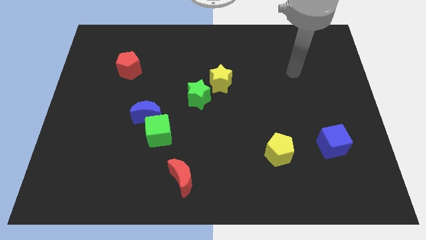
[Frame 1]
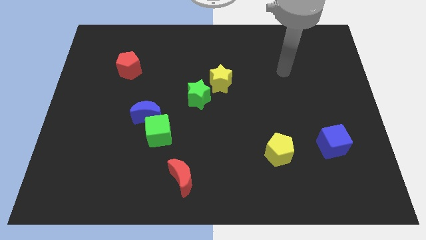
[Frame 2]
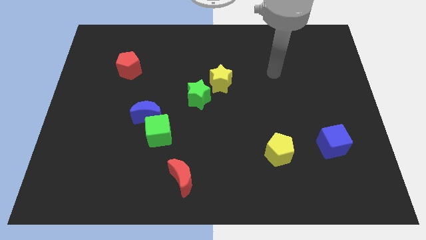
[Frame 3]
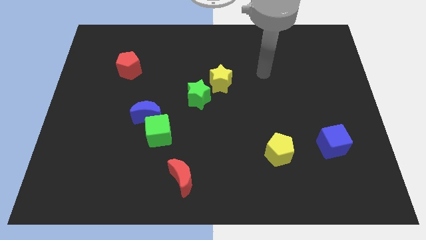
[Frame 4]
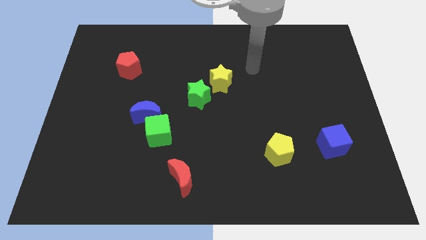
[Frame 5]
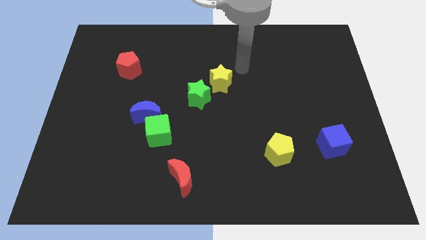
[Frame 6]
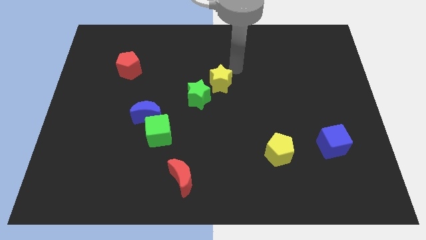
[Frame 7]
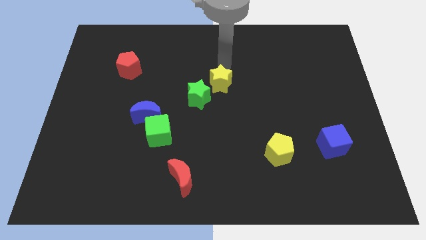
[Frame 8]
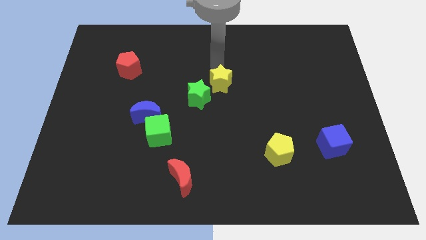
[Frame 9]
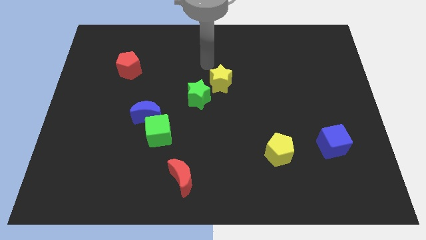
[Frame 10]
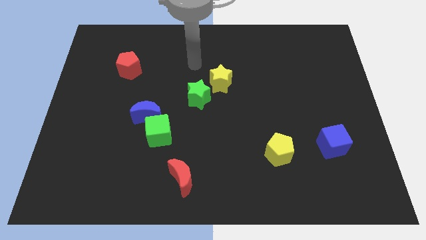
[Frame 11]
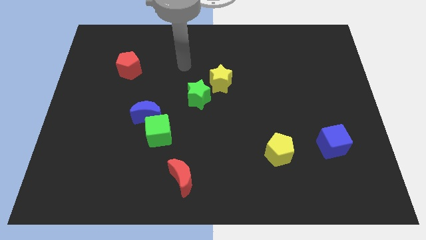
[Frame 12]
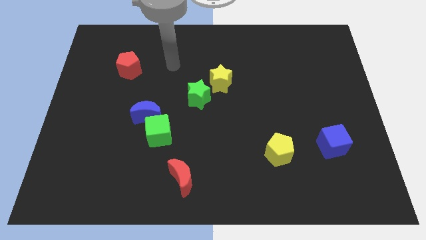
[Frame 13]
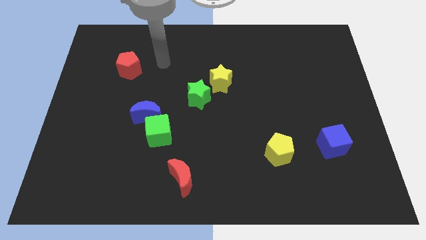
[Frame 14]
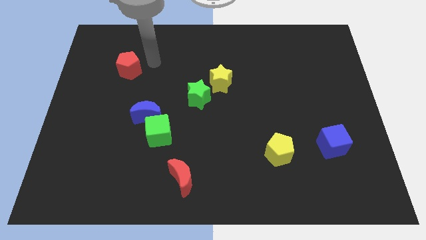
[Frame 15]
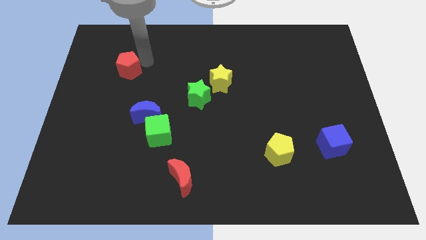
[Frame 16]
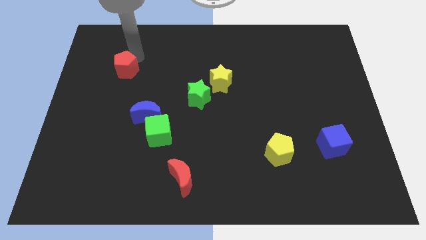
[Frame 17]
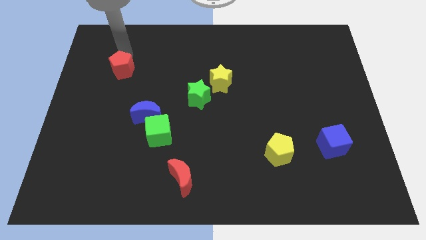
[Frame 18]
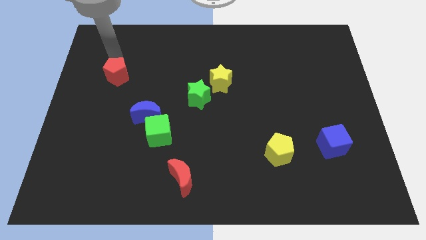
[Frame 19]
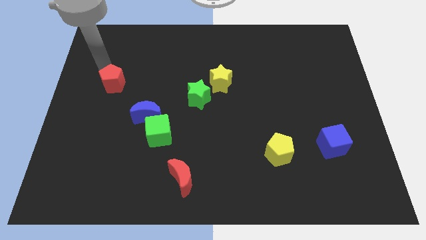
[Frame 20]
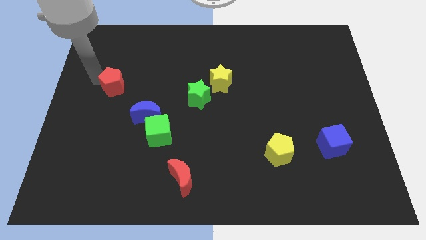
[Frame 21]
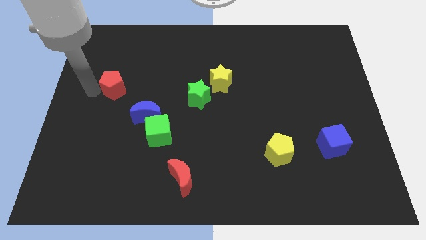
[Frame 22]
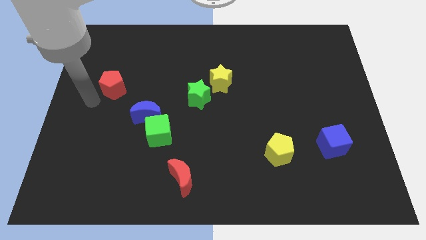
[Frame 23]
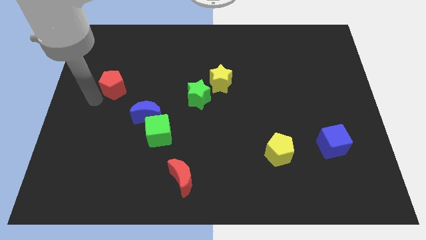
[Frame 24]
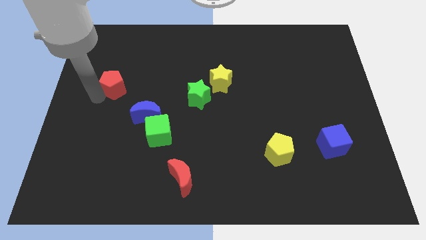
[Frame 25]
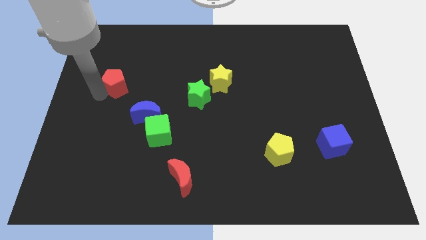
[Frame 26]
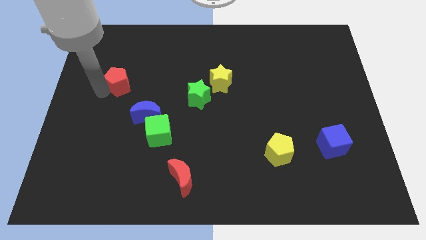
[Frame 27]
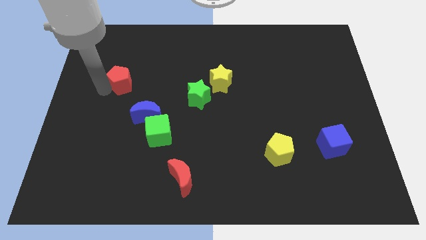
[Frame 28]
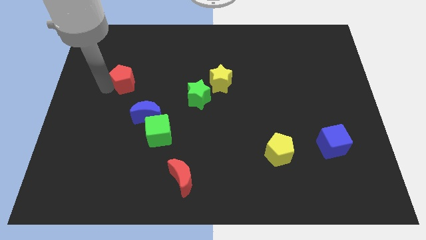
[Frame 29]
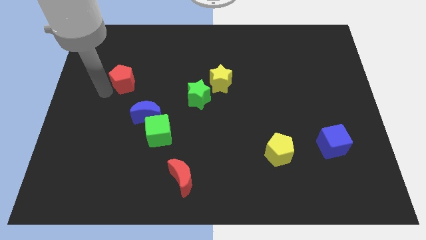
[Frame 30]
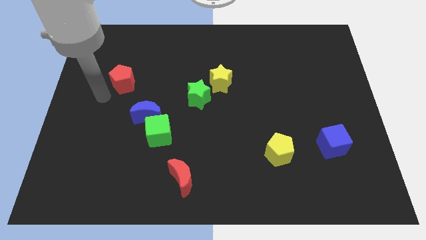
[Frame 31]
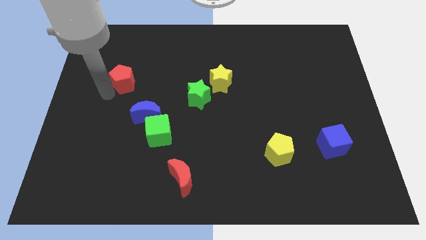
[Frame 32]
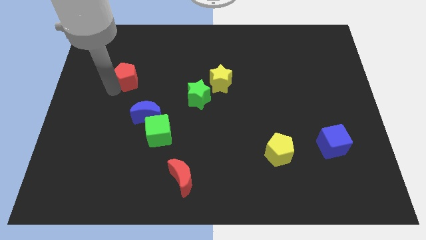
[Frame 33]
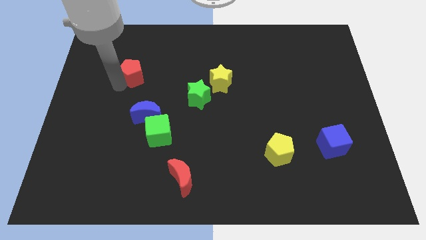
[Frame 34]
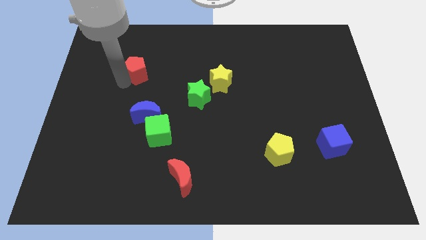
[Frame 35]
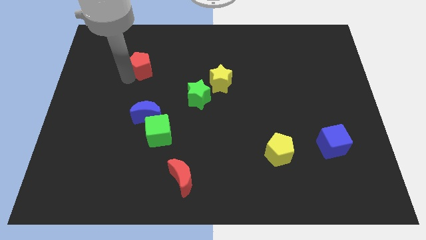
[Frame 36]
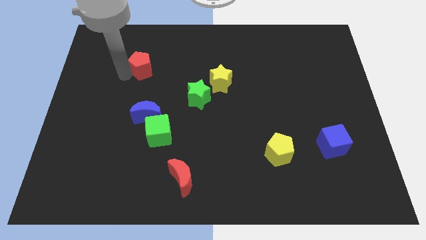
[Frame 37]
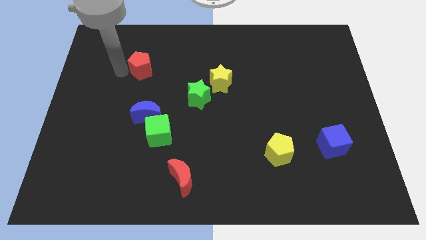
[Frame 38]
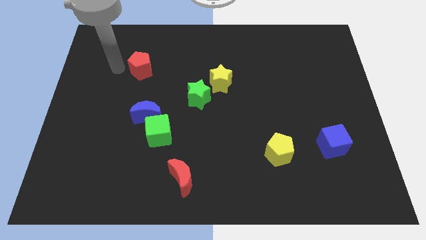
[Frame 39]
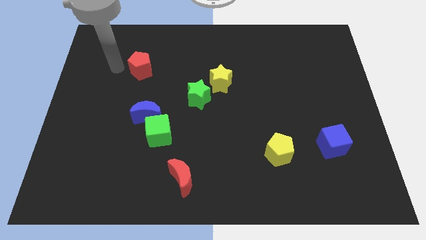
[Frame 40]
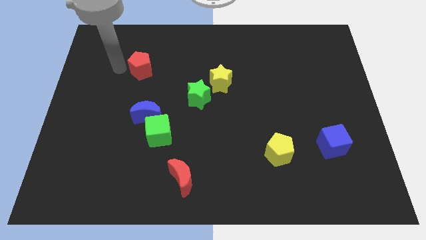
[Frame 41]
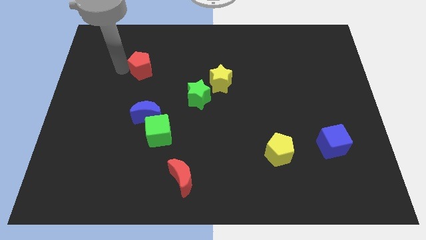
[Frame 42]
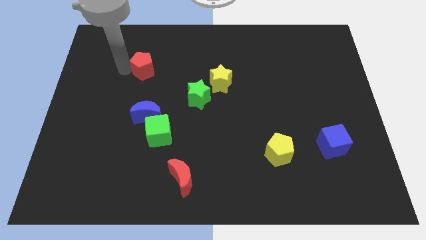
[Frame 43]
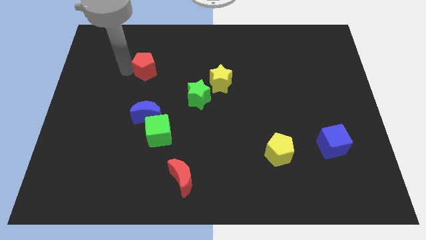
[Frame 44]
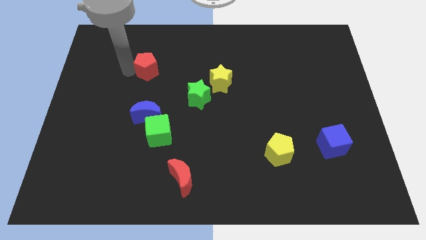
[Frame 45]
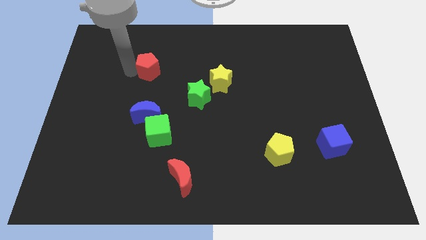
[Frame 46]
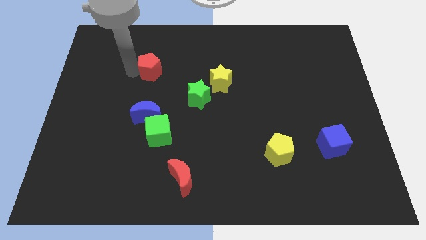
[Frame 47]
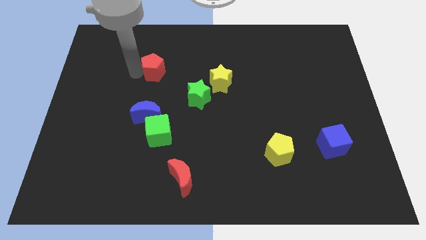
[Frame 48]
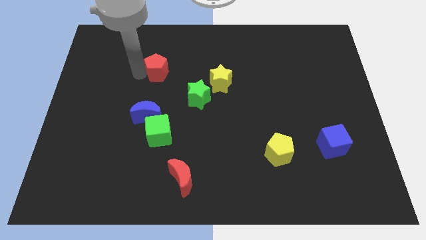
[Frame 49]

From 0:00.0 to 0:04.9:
push the red pentagon a little right

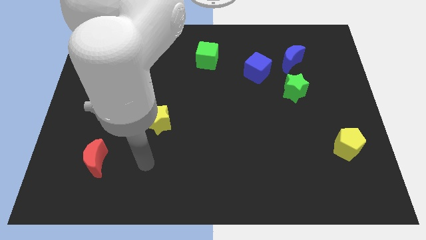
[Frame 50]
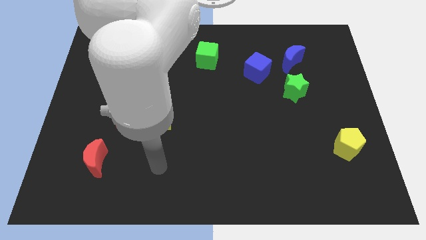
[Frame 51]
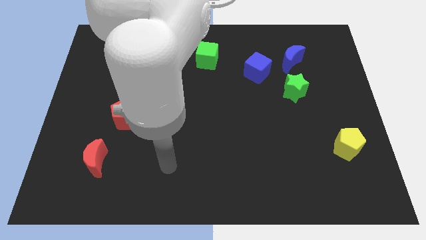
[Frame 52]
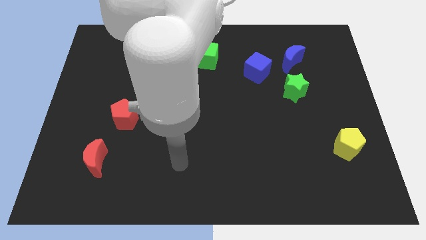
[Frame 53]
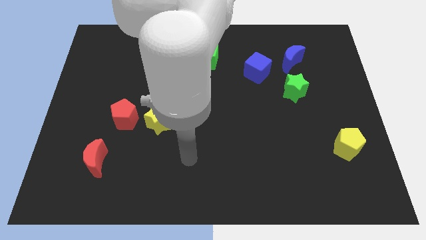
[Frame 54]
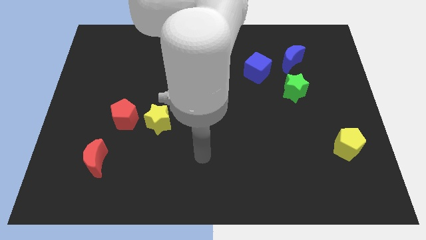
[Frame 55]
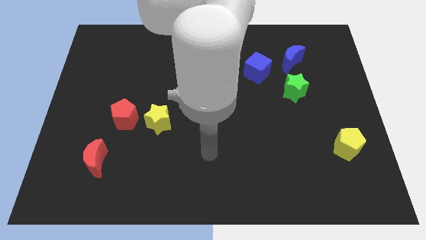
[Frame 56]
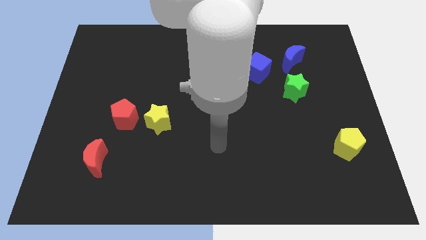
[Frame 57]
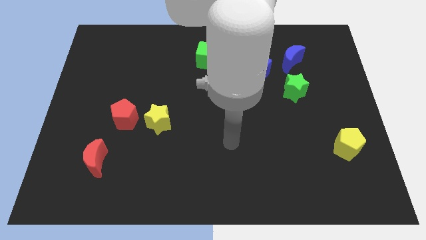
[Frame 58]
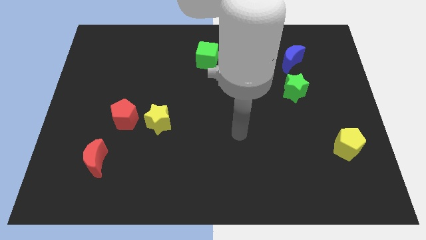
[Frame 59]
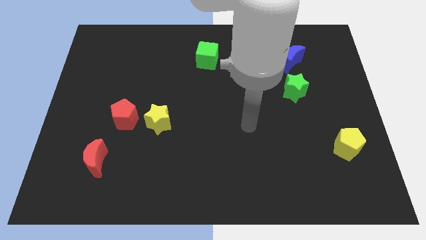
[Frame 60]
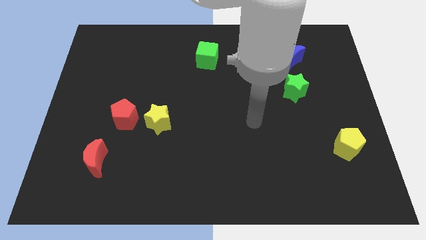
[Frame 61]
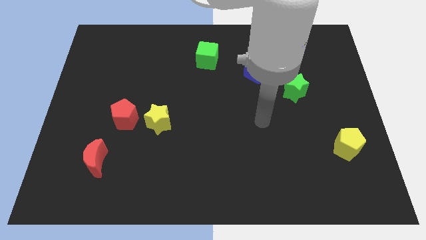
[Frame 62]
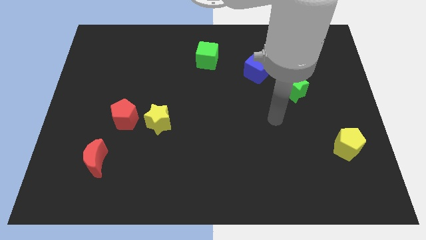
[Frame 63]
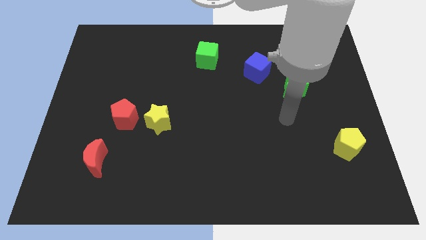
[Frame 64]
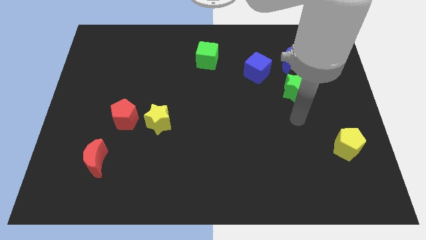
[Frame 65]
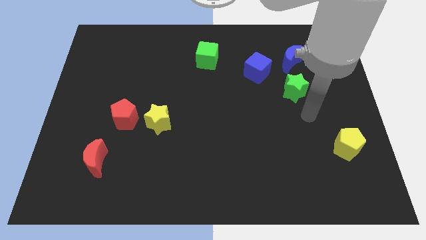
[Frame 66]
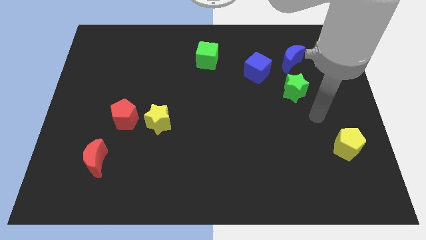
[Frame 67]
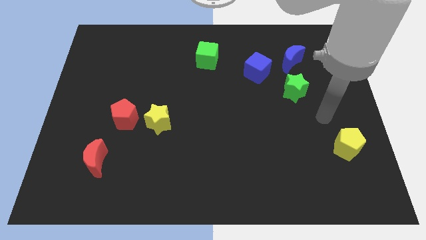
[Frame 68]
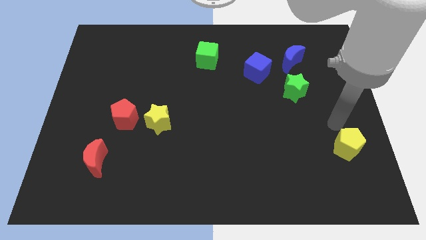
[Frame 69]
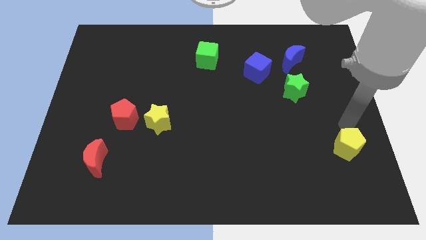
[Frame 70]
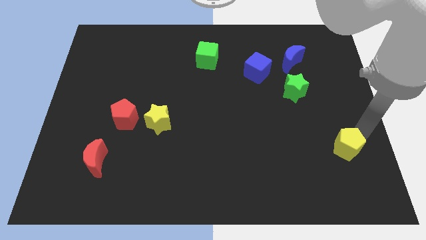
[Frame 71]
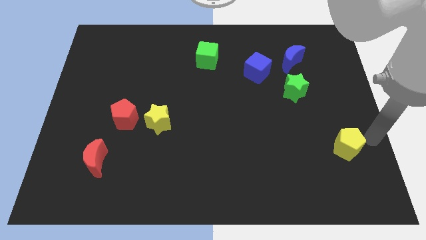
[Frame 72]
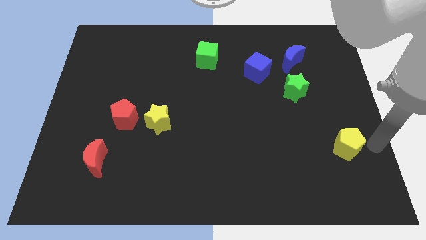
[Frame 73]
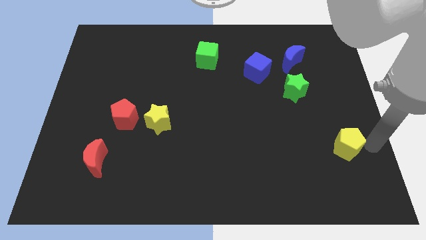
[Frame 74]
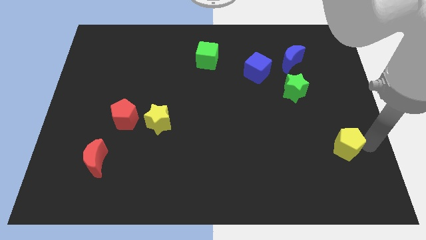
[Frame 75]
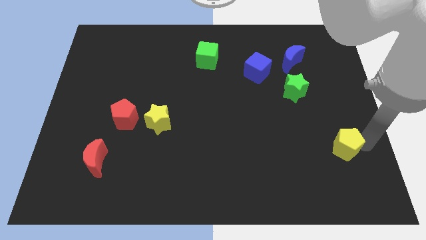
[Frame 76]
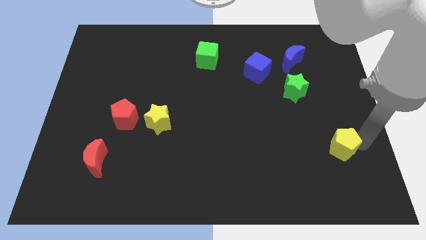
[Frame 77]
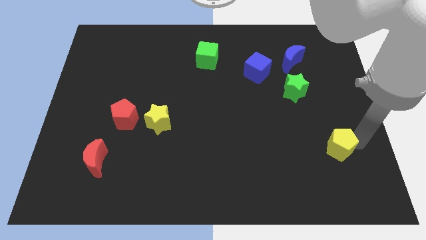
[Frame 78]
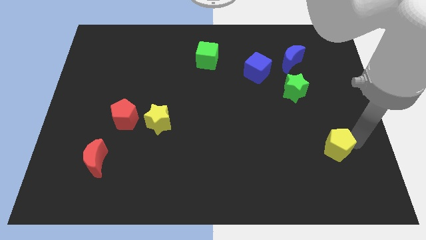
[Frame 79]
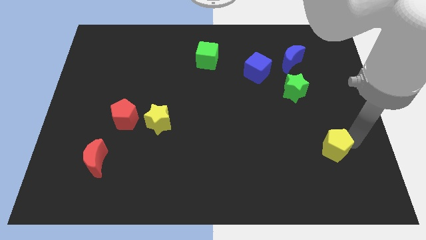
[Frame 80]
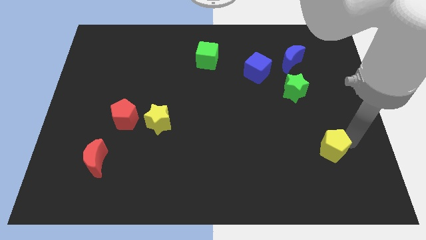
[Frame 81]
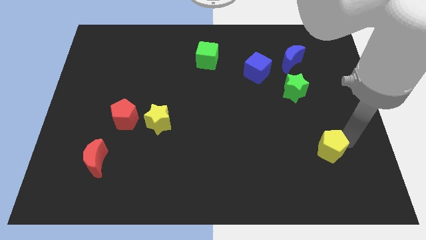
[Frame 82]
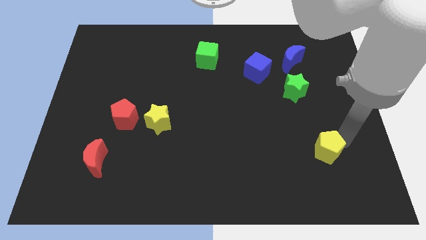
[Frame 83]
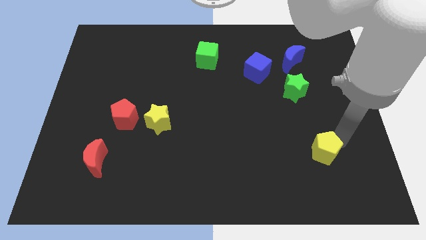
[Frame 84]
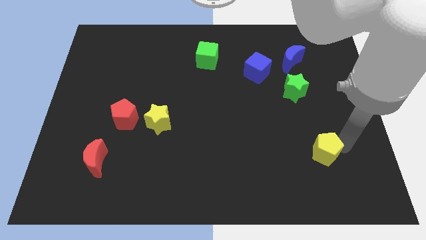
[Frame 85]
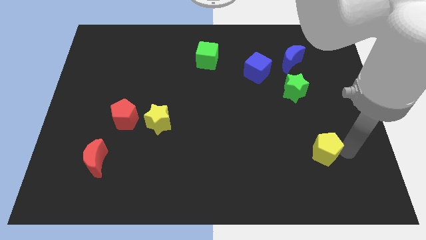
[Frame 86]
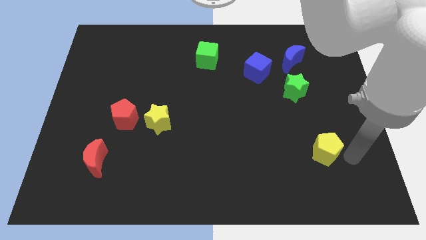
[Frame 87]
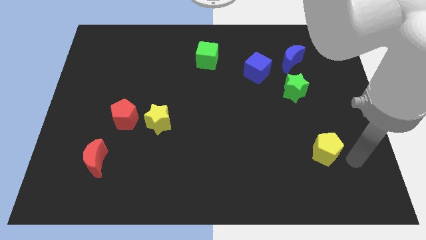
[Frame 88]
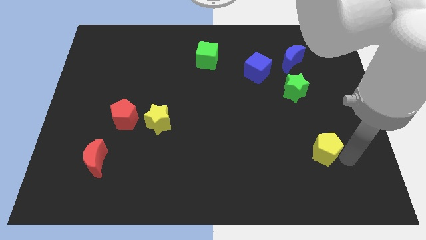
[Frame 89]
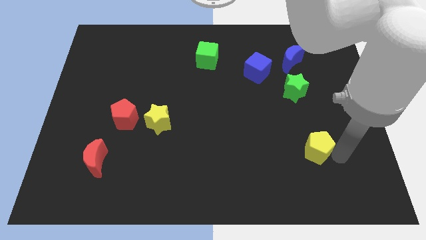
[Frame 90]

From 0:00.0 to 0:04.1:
slide the yellow pentagon to the left a little bit
